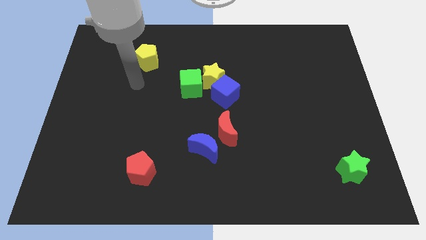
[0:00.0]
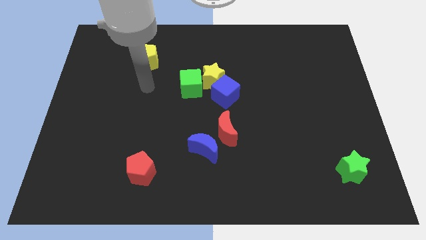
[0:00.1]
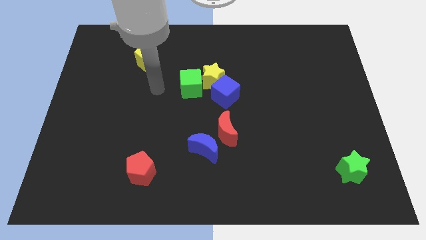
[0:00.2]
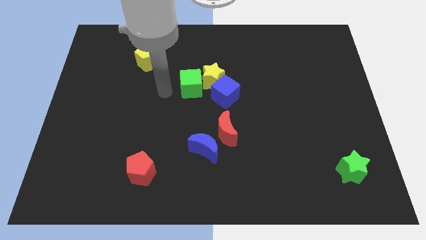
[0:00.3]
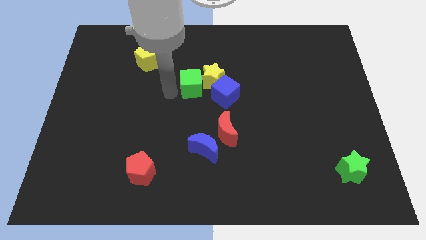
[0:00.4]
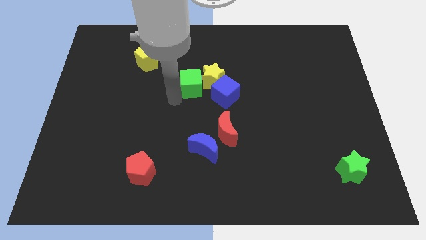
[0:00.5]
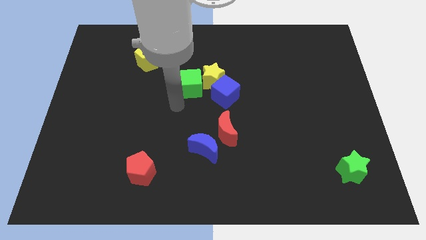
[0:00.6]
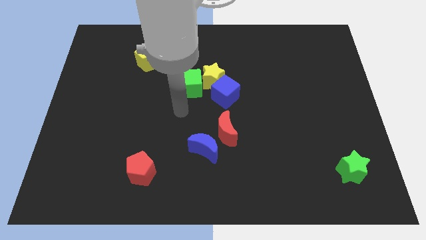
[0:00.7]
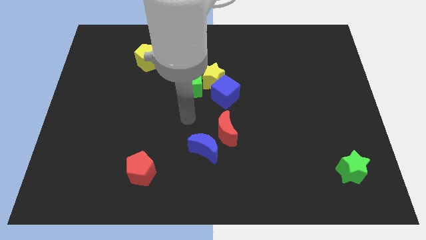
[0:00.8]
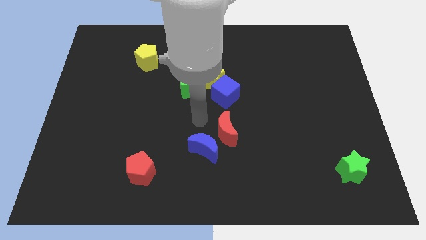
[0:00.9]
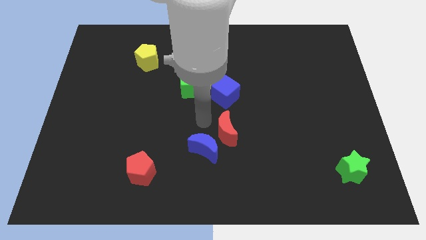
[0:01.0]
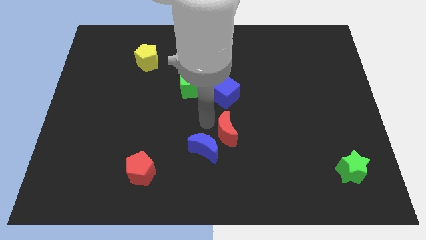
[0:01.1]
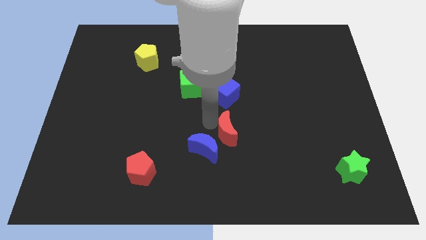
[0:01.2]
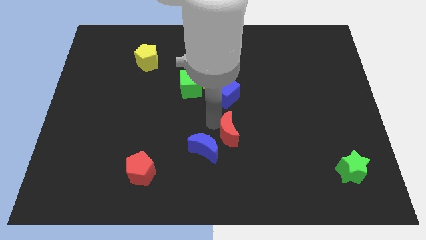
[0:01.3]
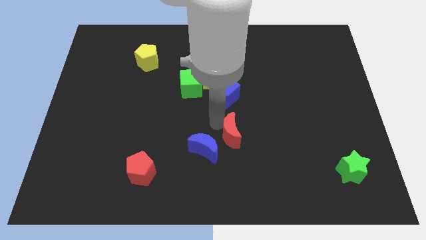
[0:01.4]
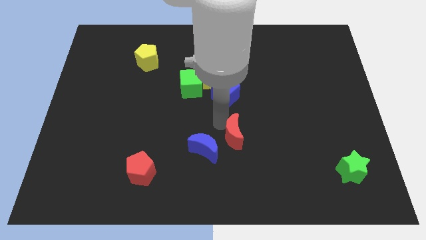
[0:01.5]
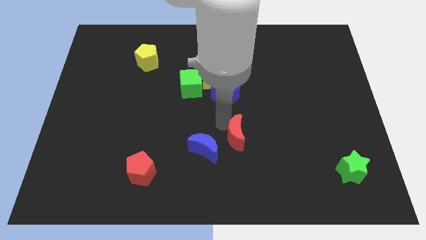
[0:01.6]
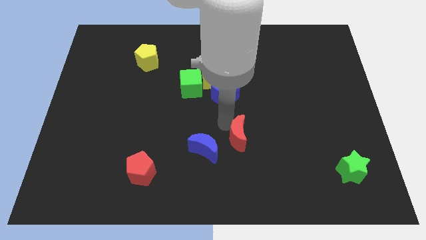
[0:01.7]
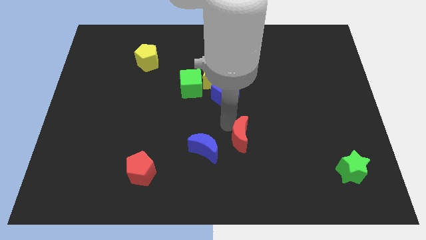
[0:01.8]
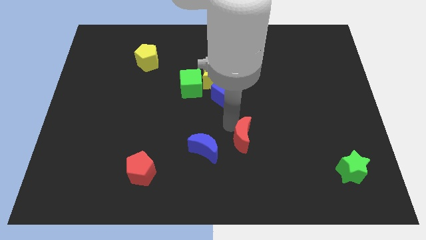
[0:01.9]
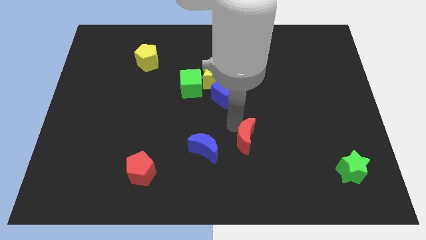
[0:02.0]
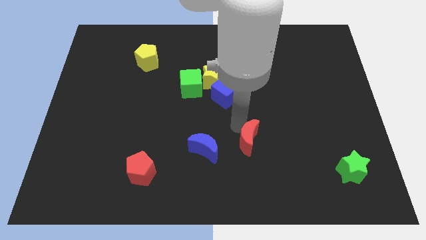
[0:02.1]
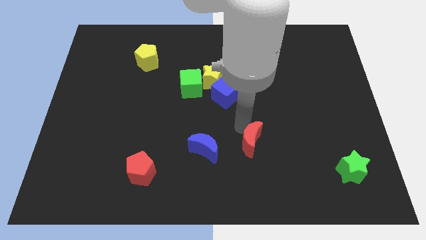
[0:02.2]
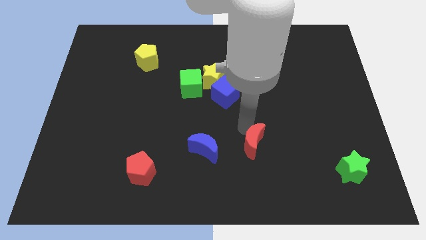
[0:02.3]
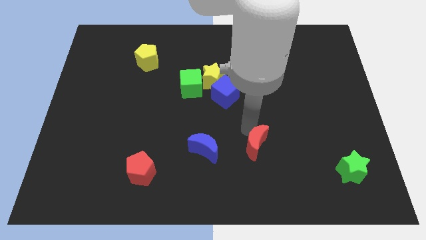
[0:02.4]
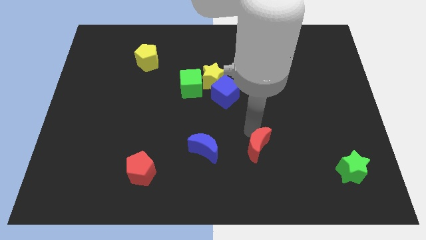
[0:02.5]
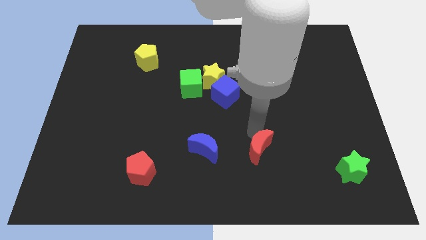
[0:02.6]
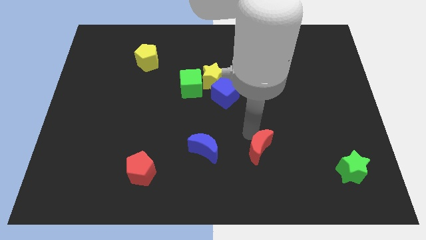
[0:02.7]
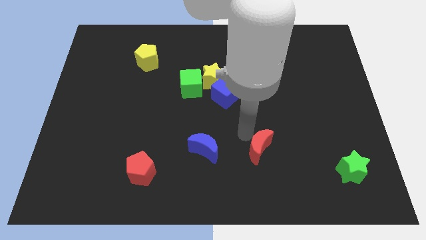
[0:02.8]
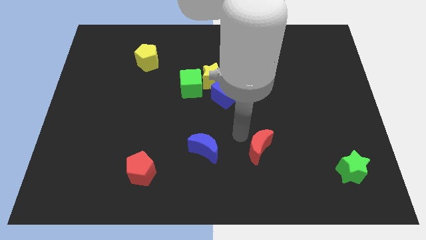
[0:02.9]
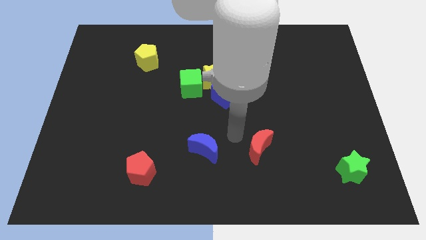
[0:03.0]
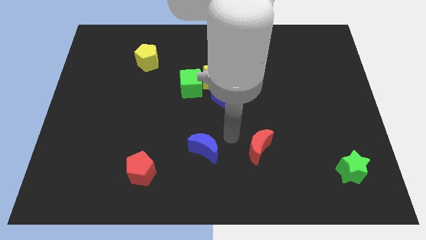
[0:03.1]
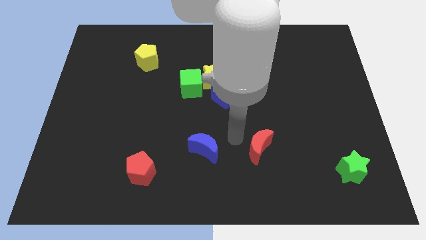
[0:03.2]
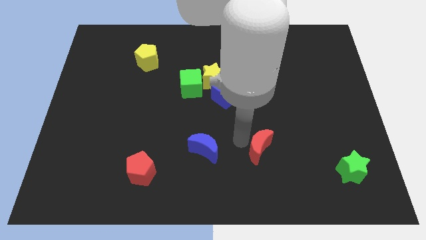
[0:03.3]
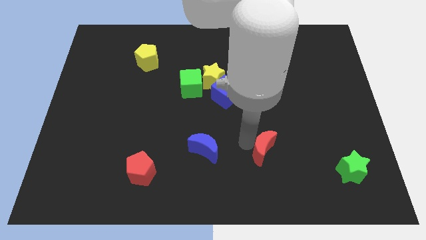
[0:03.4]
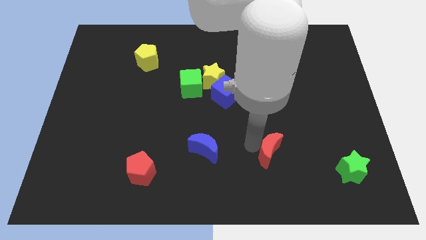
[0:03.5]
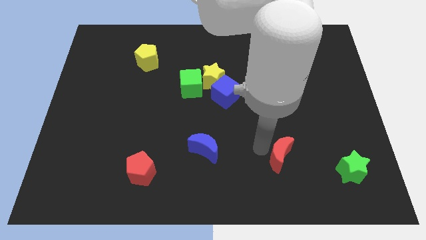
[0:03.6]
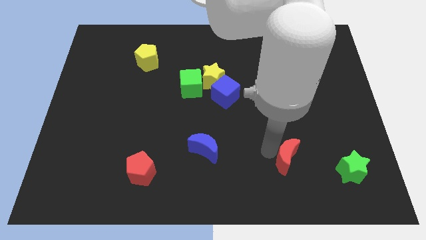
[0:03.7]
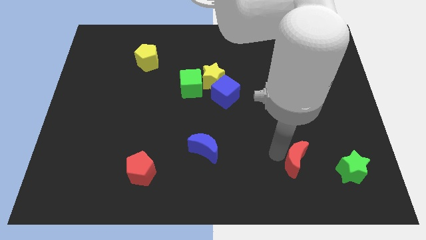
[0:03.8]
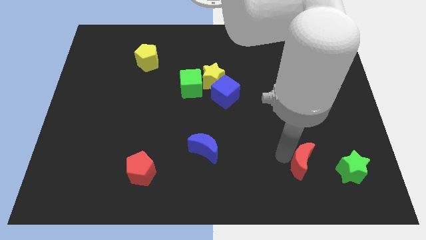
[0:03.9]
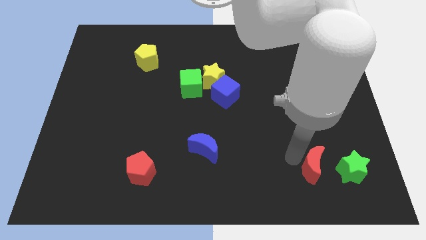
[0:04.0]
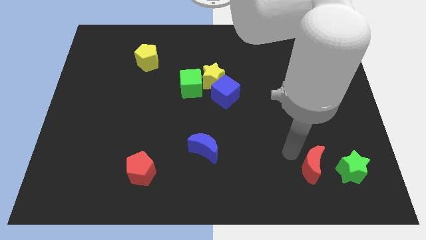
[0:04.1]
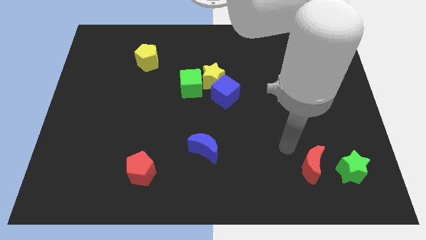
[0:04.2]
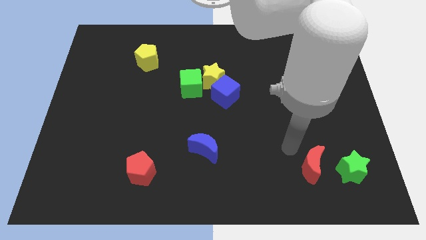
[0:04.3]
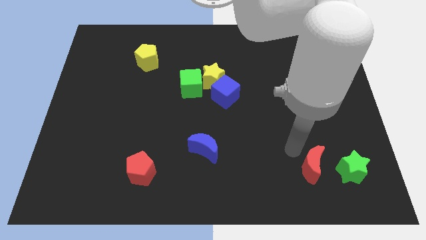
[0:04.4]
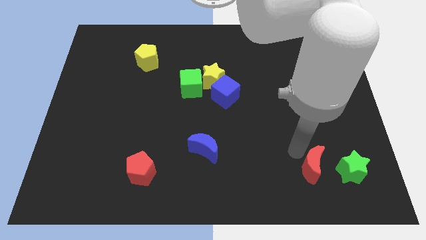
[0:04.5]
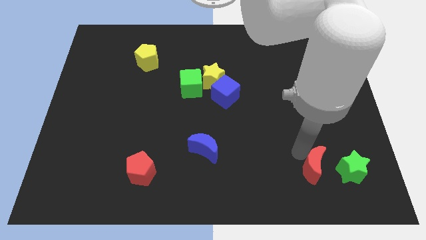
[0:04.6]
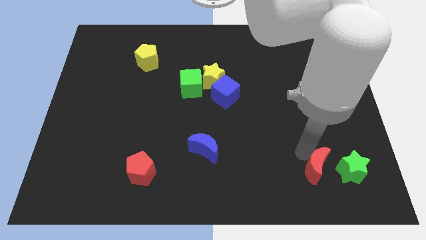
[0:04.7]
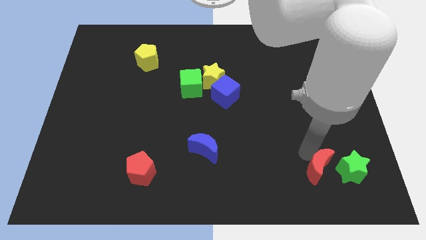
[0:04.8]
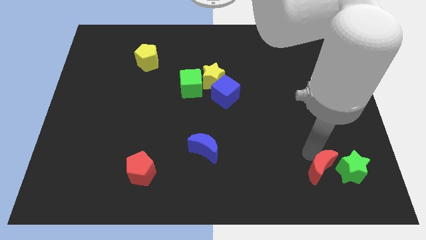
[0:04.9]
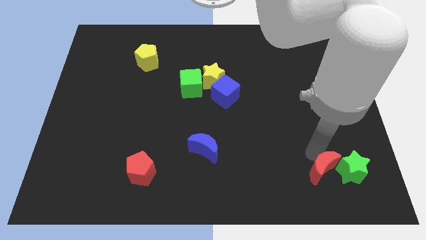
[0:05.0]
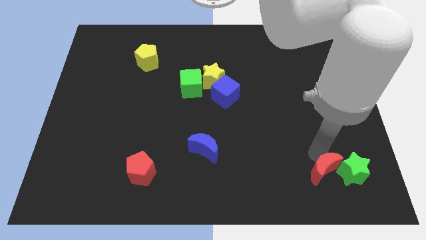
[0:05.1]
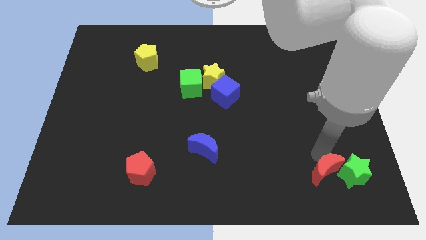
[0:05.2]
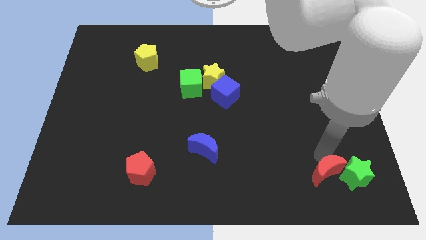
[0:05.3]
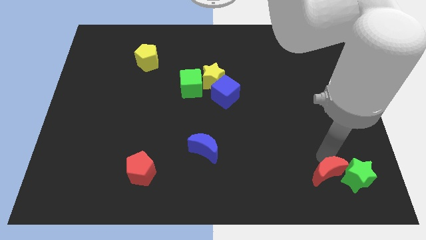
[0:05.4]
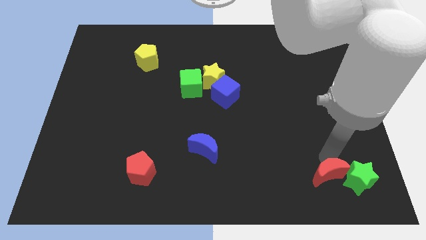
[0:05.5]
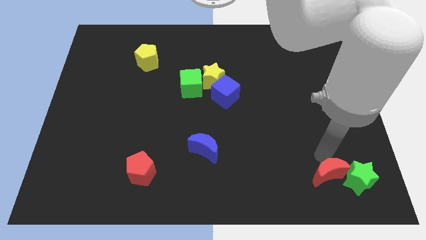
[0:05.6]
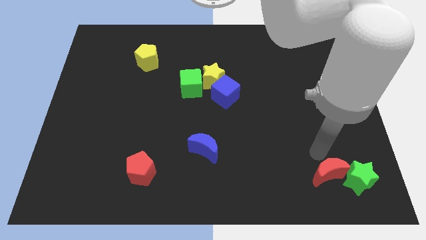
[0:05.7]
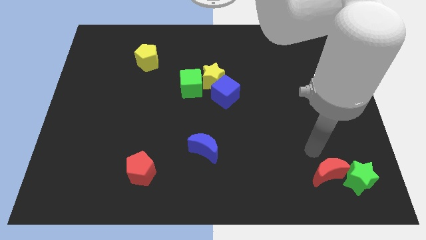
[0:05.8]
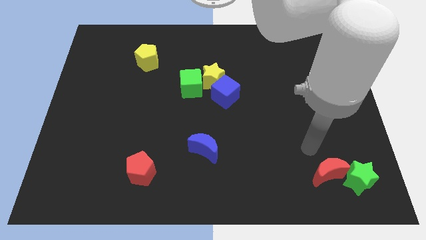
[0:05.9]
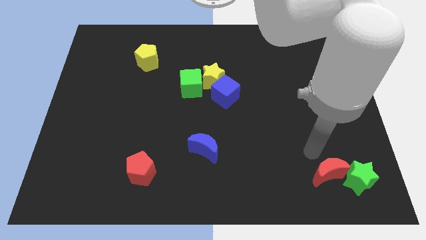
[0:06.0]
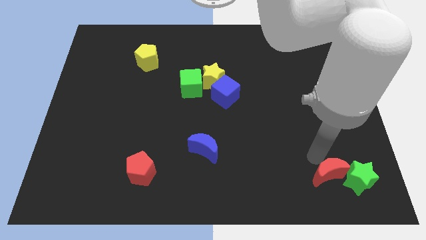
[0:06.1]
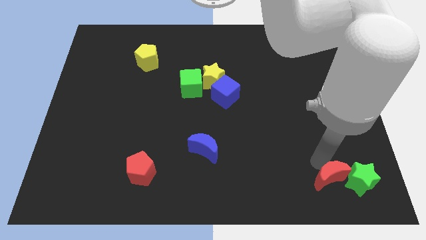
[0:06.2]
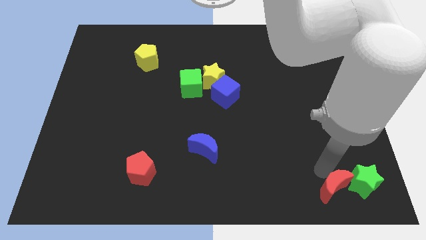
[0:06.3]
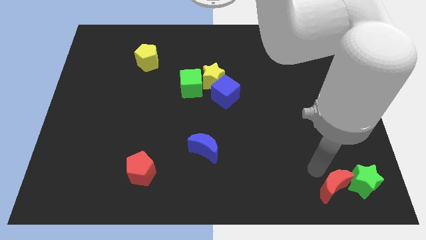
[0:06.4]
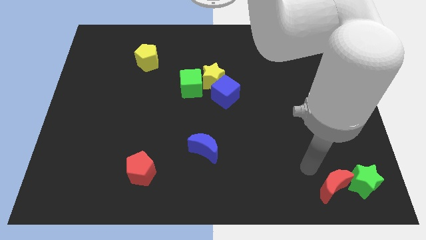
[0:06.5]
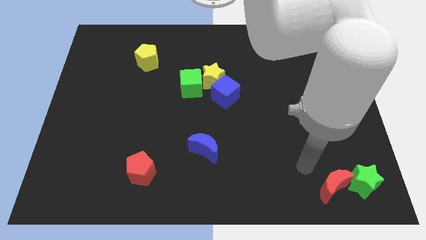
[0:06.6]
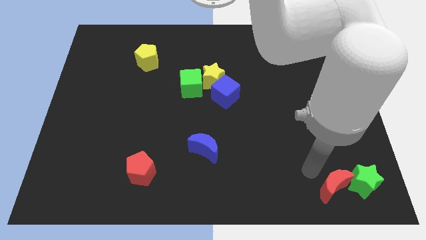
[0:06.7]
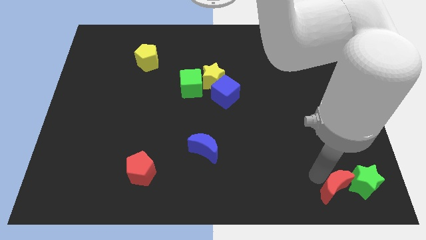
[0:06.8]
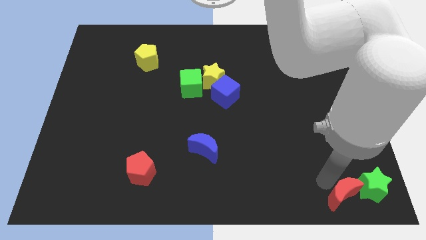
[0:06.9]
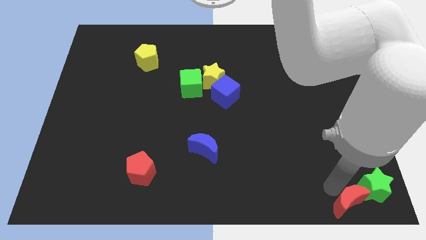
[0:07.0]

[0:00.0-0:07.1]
slide the red moon to the bottom right of the board

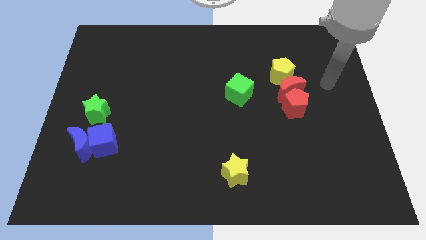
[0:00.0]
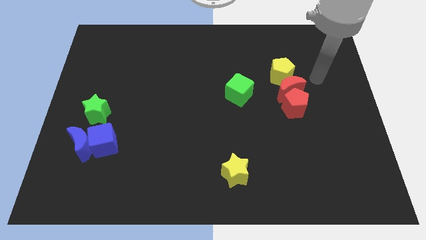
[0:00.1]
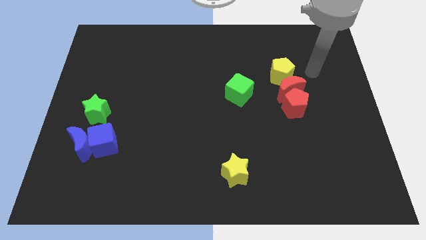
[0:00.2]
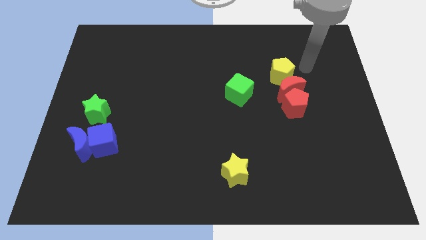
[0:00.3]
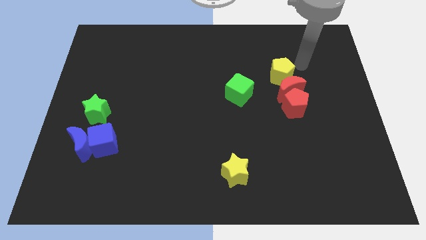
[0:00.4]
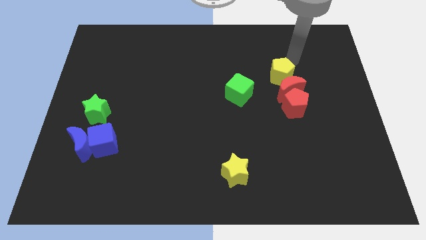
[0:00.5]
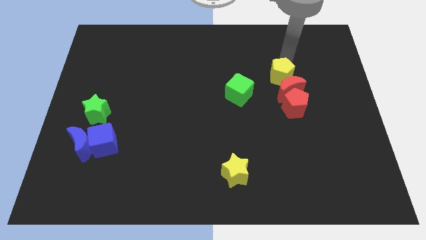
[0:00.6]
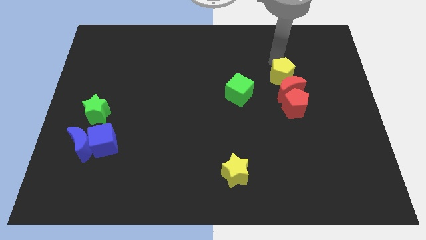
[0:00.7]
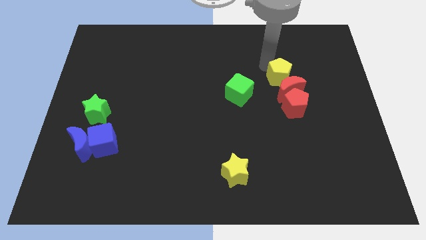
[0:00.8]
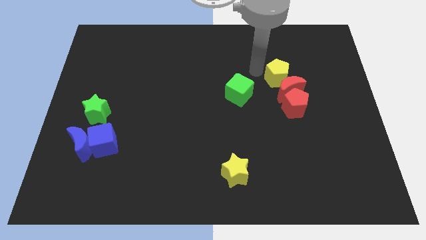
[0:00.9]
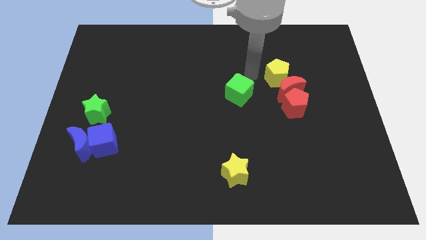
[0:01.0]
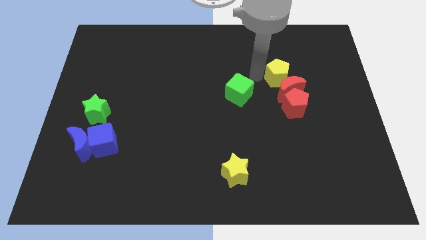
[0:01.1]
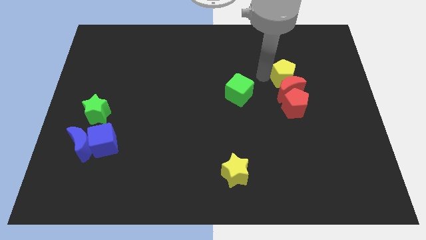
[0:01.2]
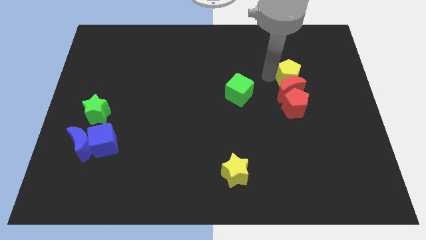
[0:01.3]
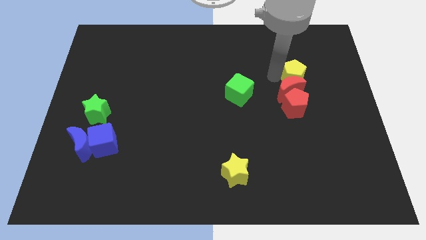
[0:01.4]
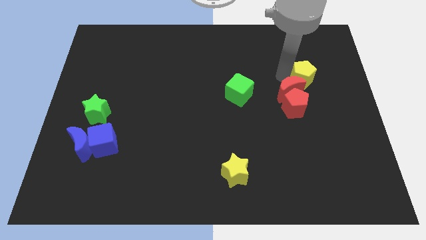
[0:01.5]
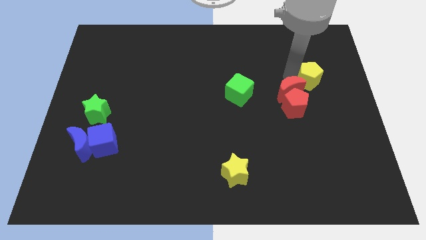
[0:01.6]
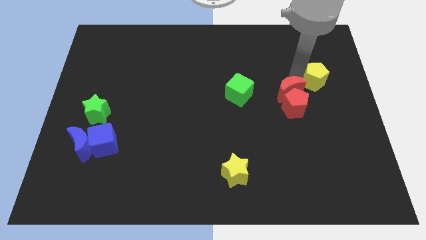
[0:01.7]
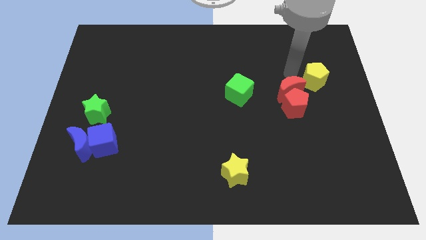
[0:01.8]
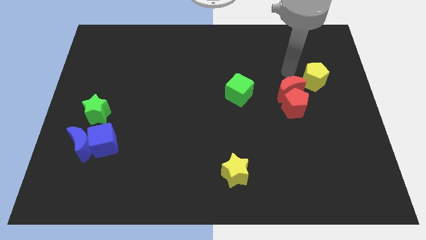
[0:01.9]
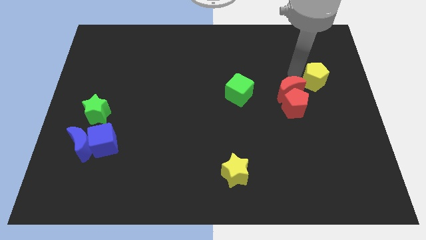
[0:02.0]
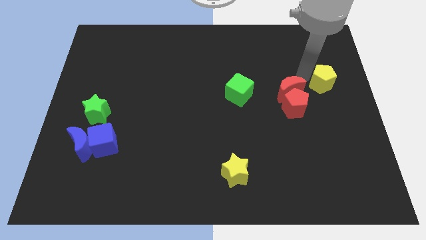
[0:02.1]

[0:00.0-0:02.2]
slide the yellow pentagon to the right side
